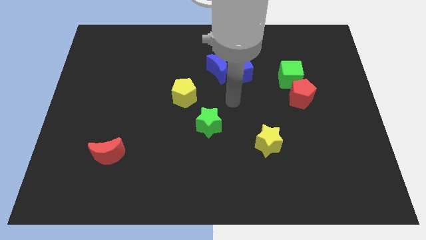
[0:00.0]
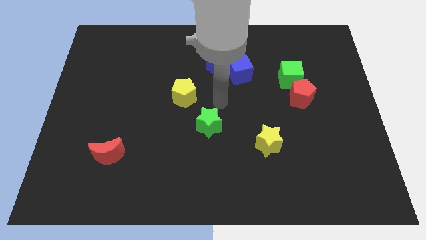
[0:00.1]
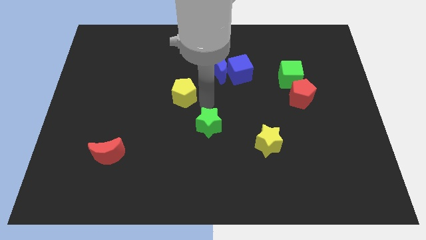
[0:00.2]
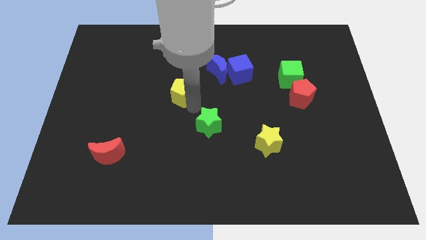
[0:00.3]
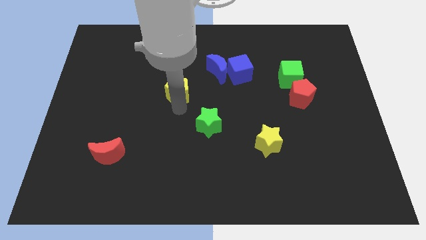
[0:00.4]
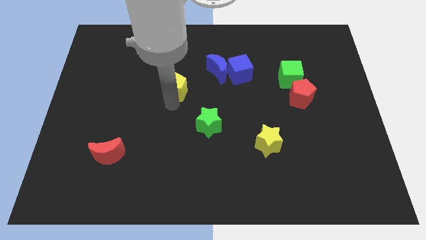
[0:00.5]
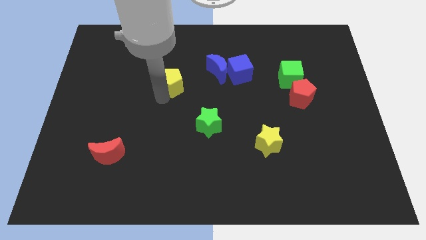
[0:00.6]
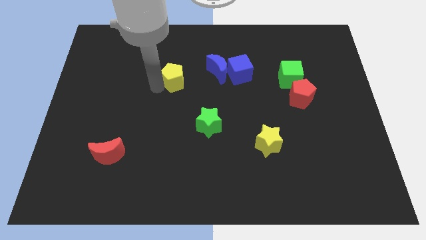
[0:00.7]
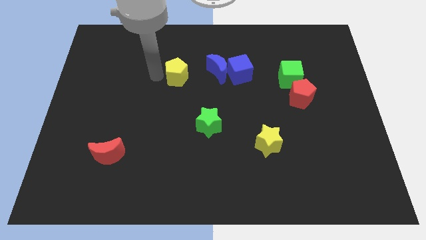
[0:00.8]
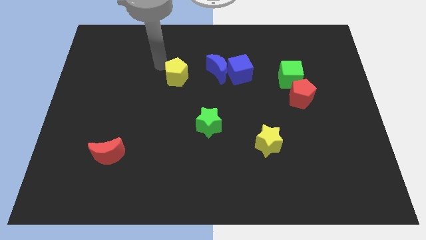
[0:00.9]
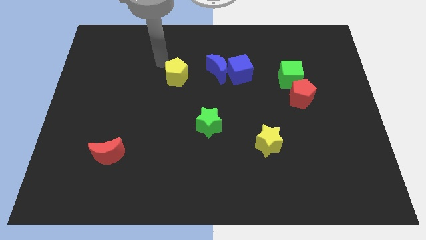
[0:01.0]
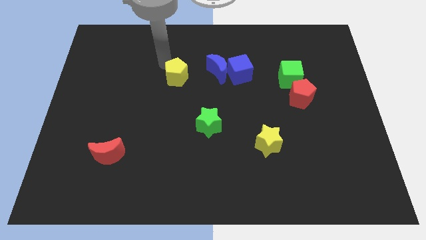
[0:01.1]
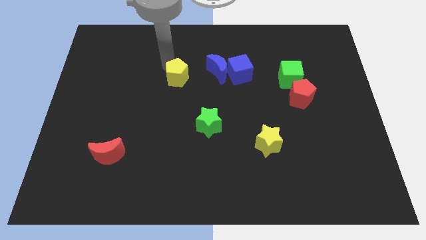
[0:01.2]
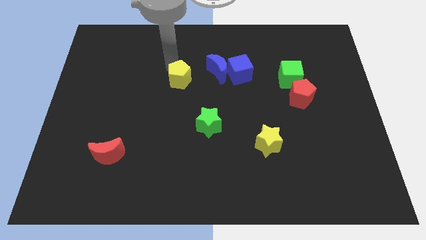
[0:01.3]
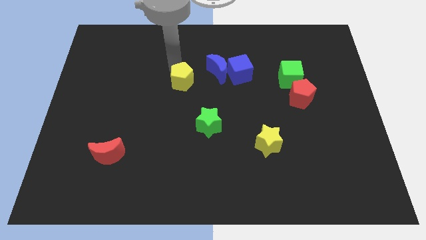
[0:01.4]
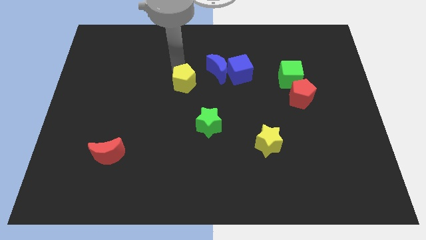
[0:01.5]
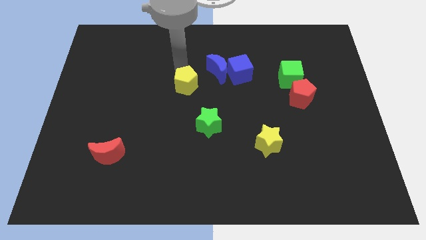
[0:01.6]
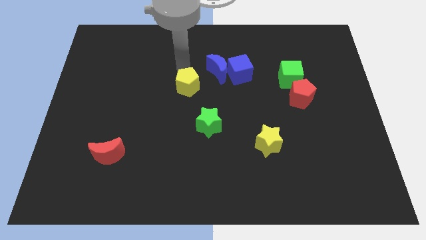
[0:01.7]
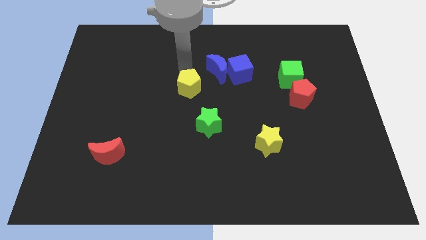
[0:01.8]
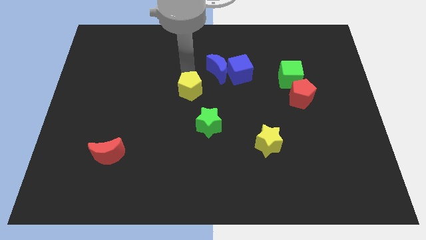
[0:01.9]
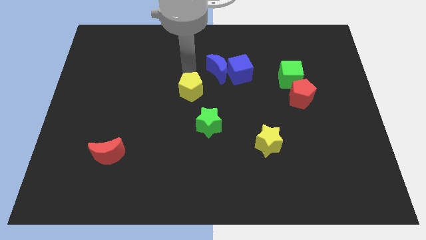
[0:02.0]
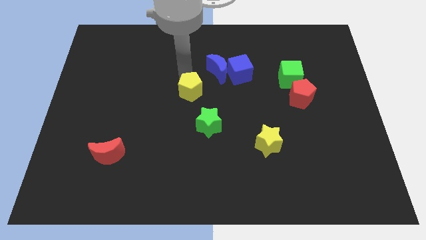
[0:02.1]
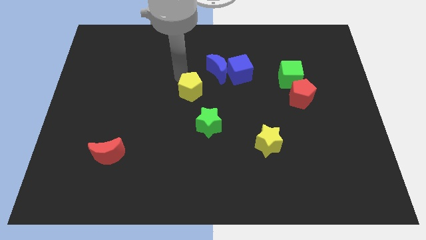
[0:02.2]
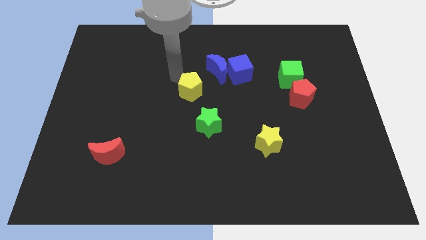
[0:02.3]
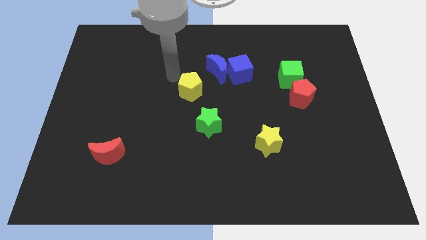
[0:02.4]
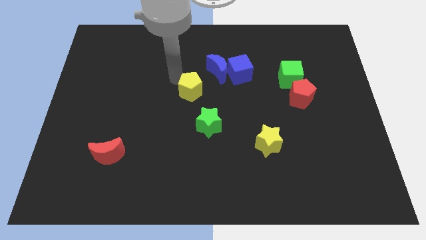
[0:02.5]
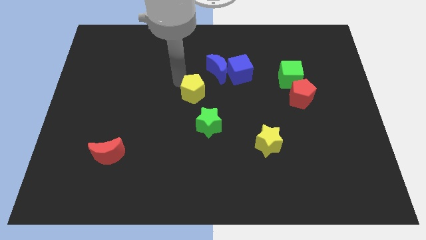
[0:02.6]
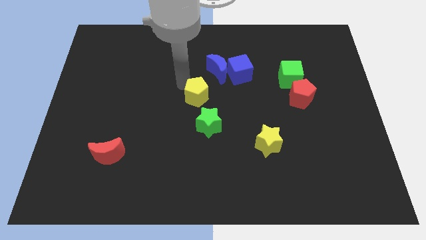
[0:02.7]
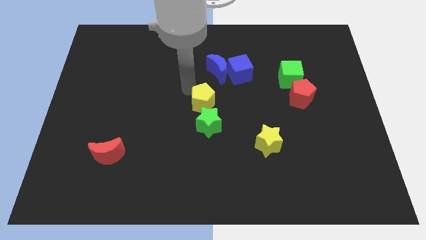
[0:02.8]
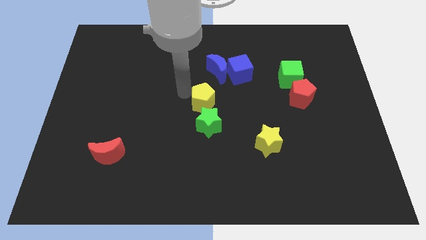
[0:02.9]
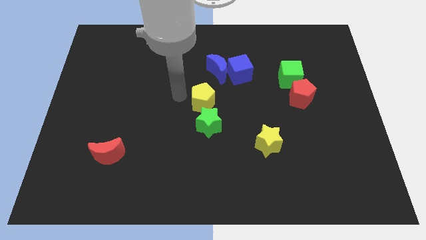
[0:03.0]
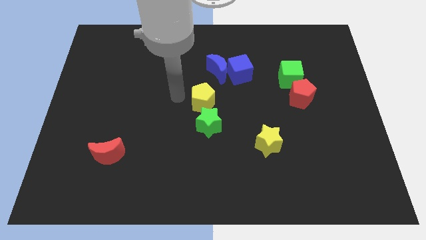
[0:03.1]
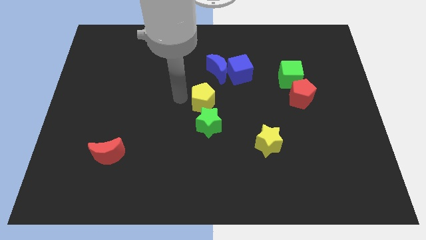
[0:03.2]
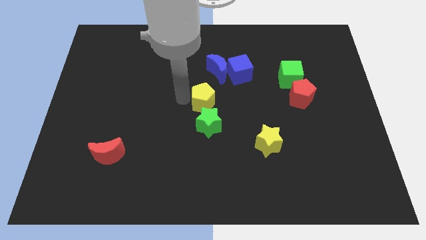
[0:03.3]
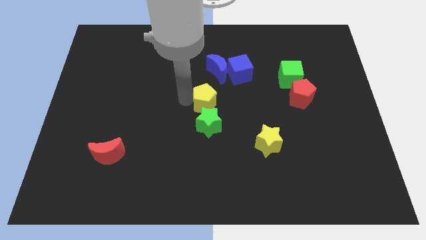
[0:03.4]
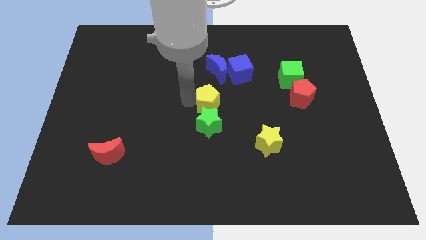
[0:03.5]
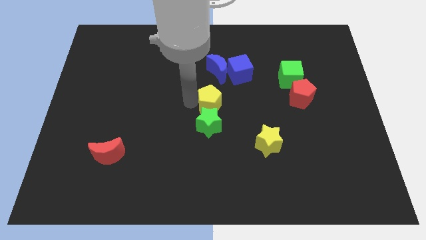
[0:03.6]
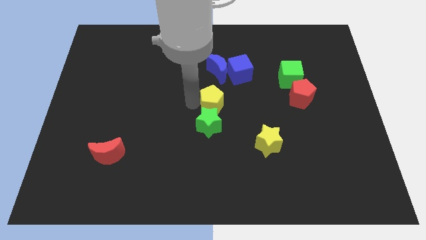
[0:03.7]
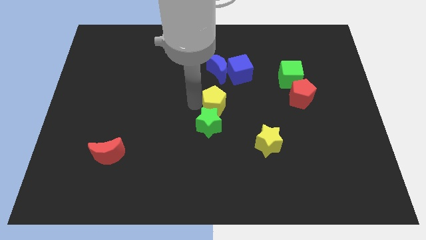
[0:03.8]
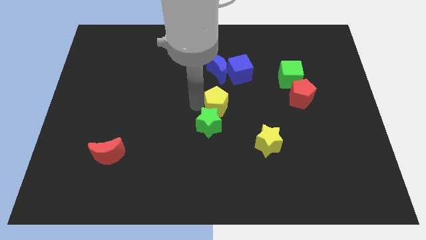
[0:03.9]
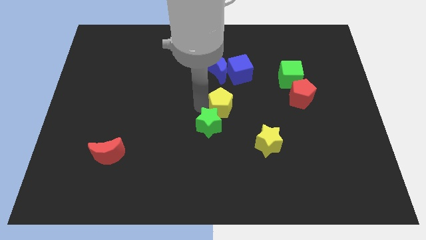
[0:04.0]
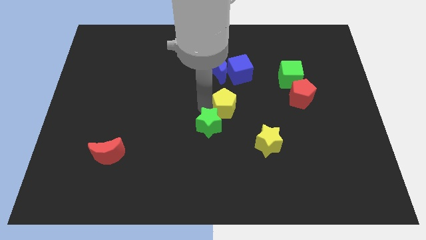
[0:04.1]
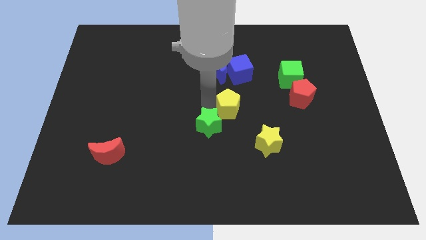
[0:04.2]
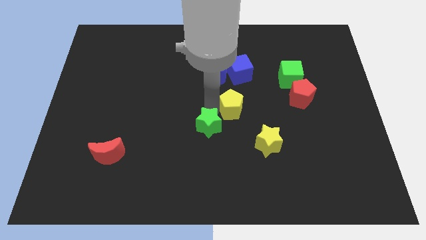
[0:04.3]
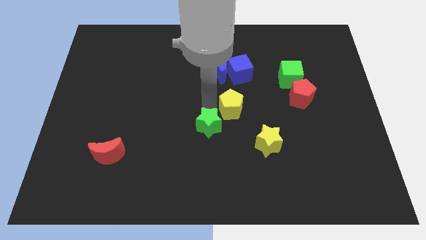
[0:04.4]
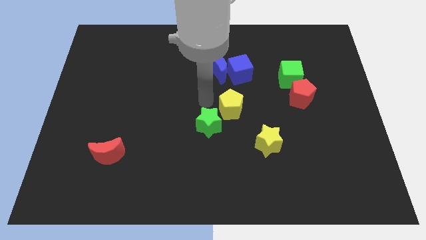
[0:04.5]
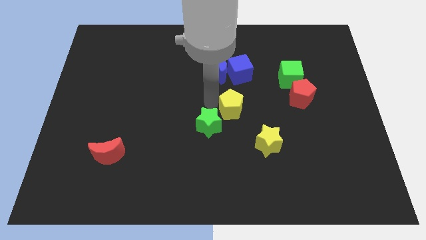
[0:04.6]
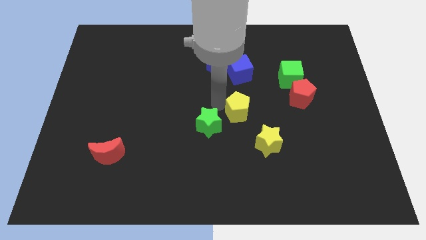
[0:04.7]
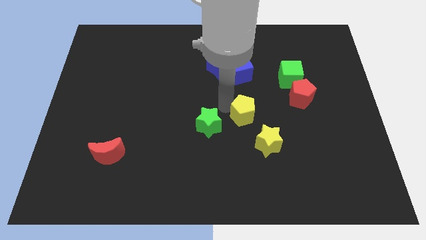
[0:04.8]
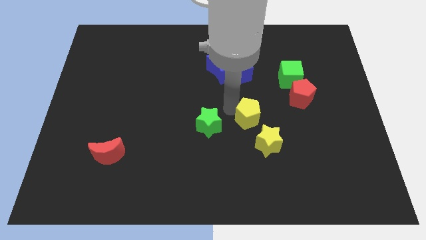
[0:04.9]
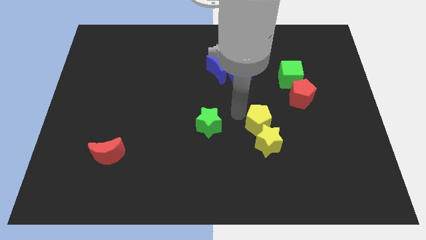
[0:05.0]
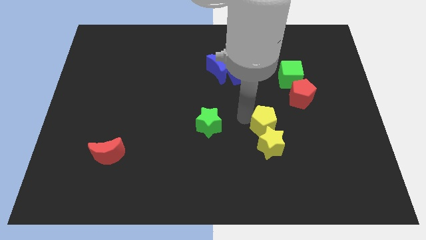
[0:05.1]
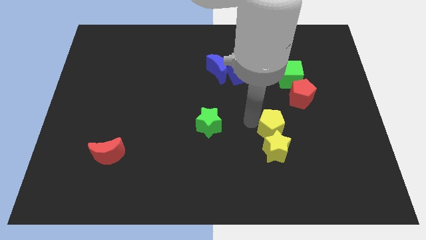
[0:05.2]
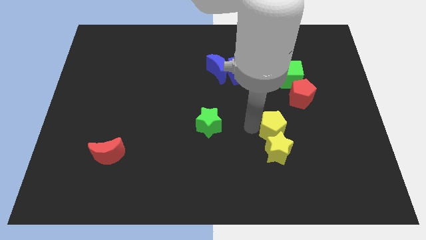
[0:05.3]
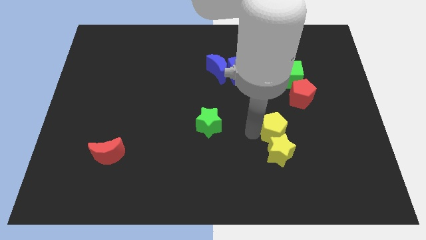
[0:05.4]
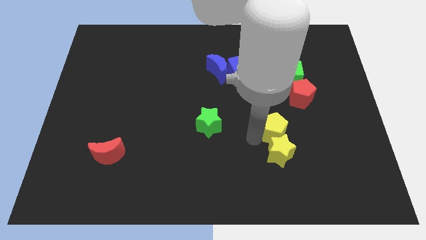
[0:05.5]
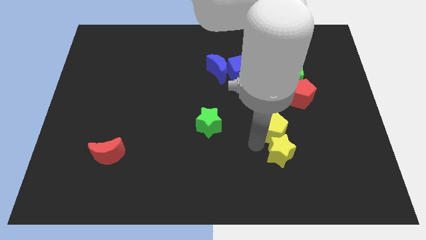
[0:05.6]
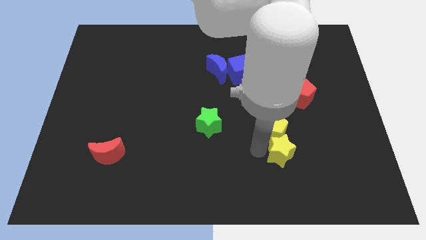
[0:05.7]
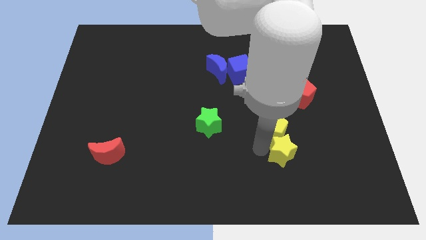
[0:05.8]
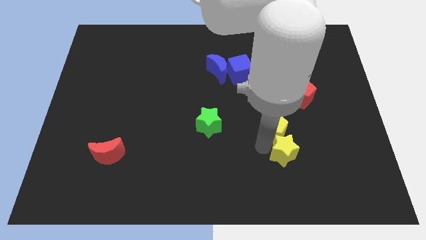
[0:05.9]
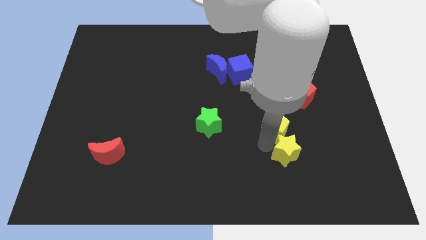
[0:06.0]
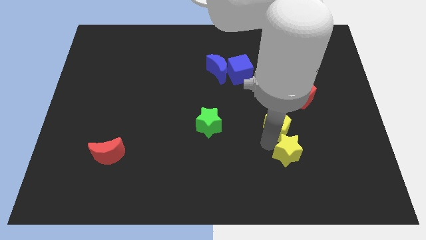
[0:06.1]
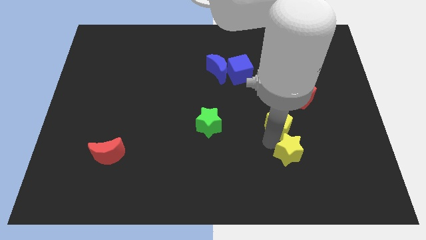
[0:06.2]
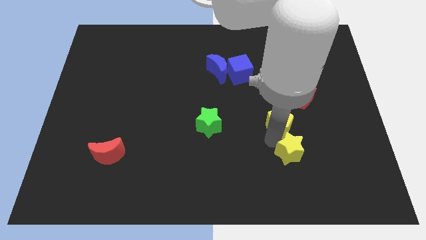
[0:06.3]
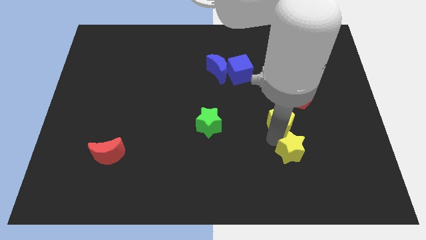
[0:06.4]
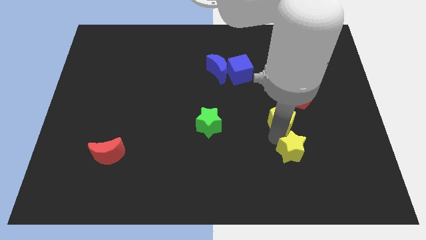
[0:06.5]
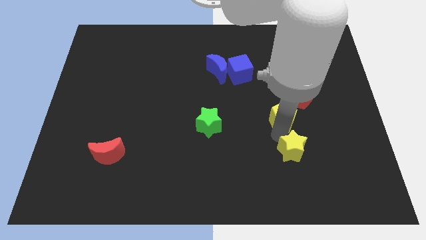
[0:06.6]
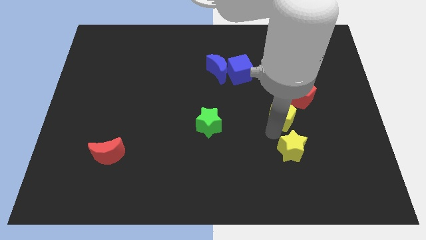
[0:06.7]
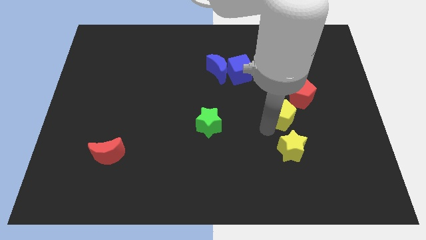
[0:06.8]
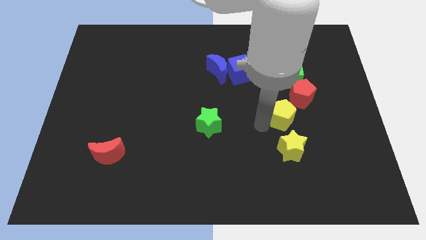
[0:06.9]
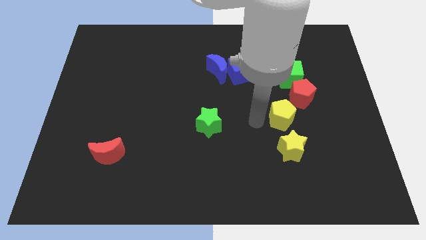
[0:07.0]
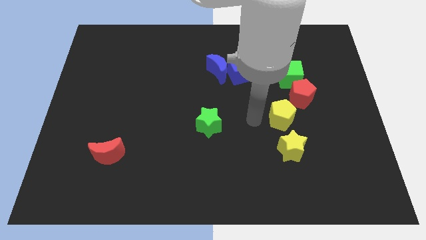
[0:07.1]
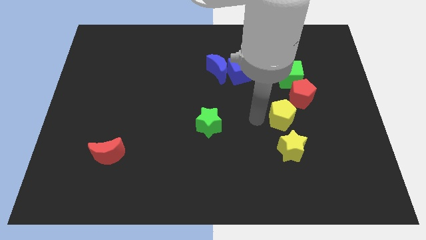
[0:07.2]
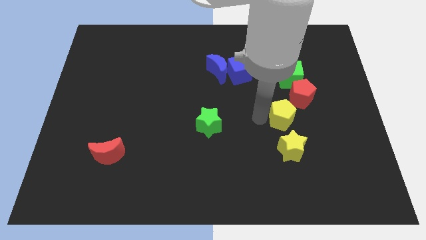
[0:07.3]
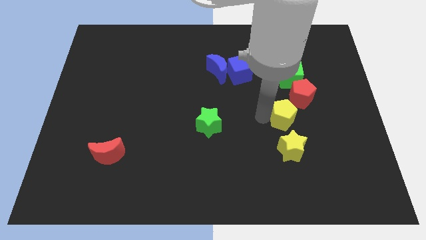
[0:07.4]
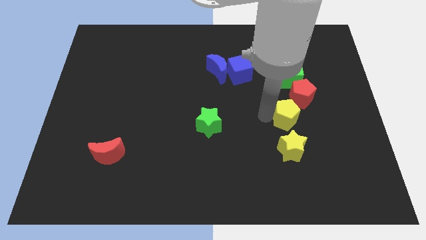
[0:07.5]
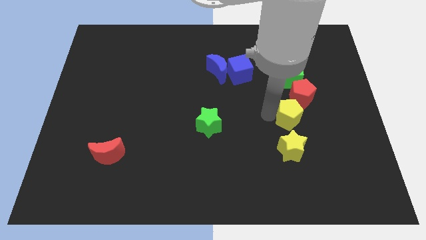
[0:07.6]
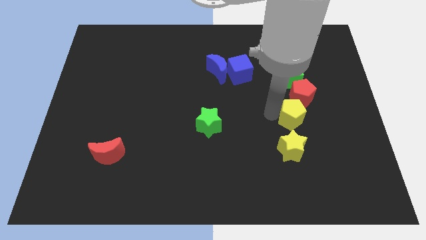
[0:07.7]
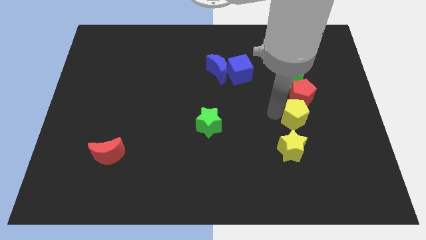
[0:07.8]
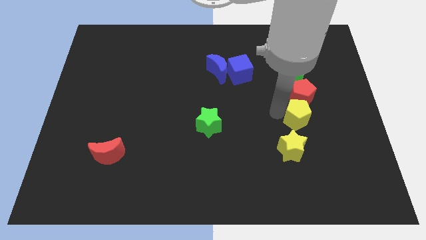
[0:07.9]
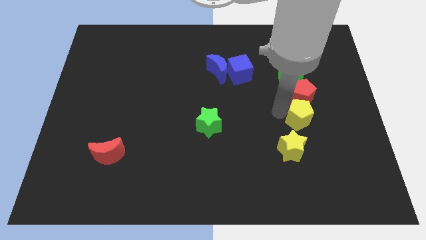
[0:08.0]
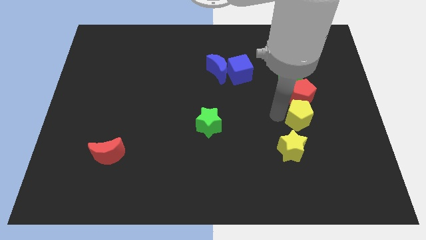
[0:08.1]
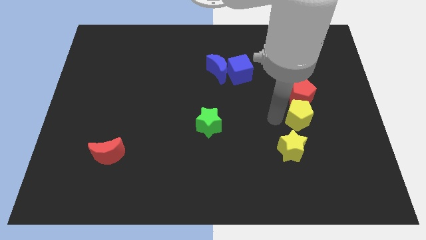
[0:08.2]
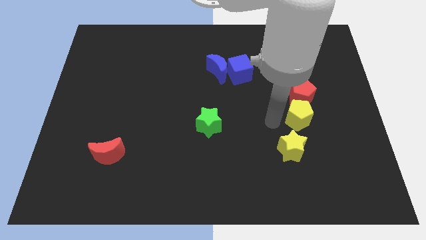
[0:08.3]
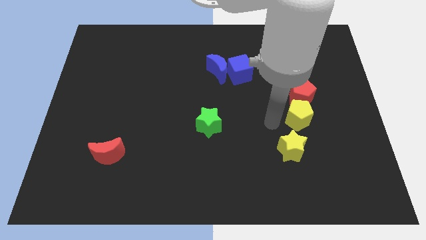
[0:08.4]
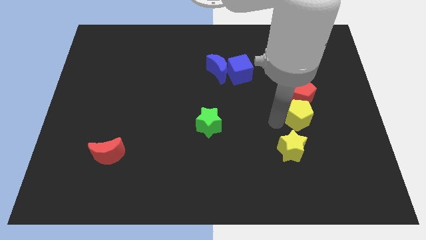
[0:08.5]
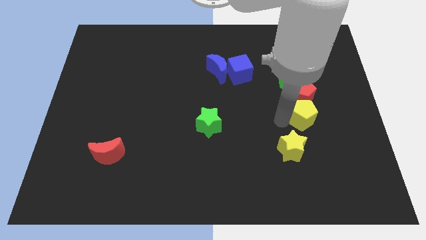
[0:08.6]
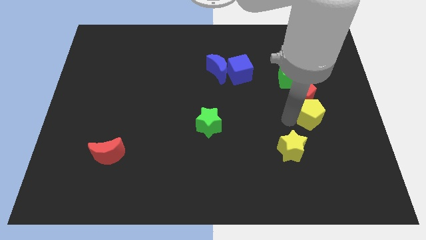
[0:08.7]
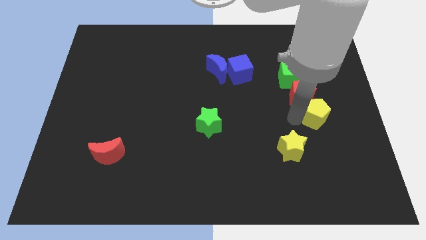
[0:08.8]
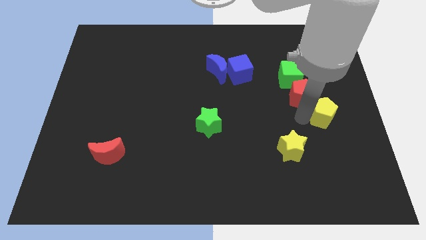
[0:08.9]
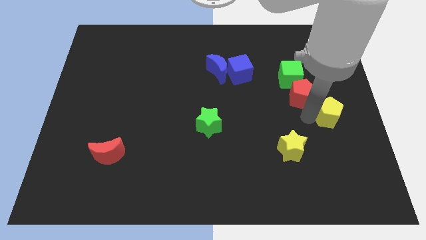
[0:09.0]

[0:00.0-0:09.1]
move the yellow pentagon to the right side of the board
